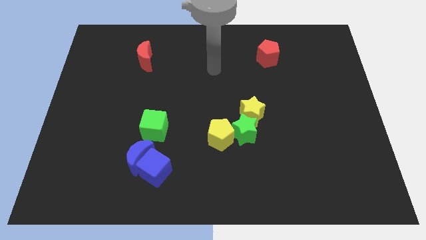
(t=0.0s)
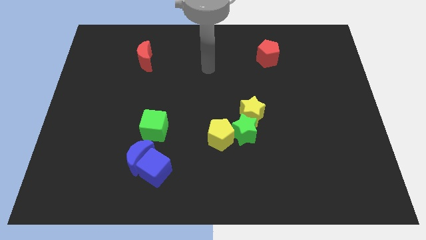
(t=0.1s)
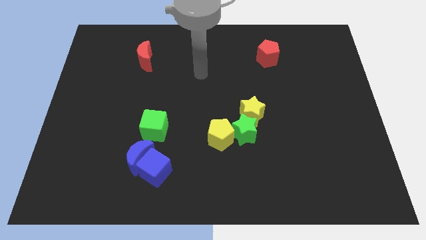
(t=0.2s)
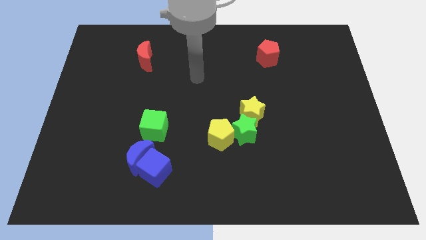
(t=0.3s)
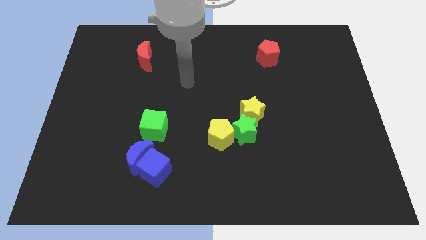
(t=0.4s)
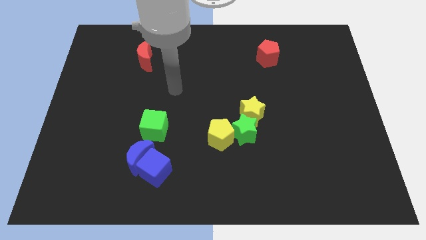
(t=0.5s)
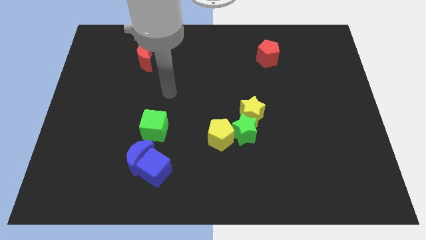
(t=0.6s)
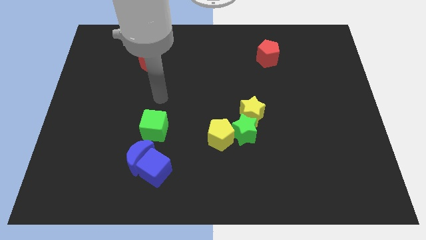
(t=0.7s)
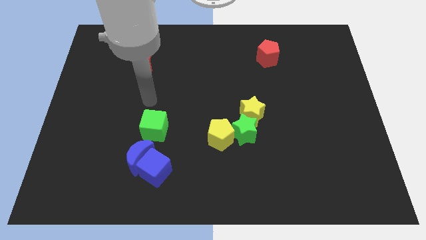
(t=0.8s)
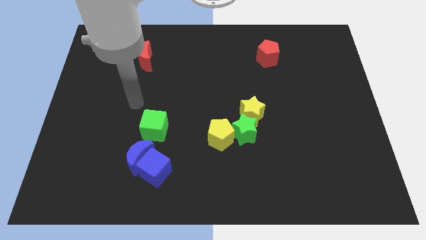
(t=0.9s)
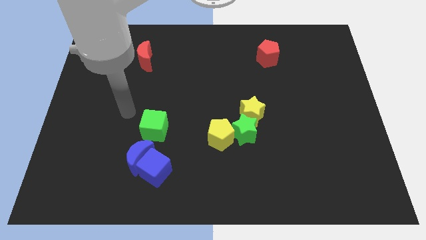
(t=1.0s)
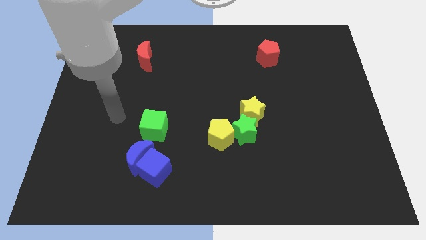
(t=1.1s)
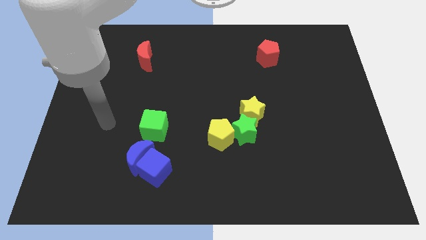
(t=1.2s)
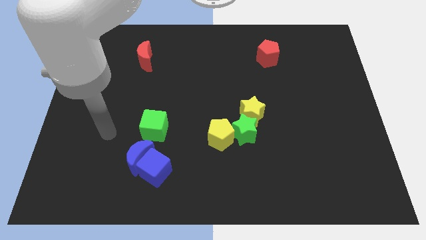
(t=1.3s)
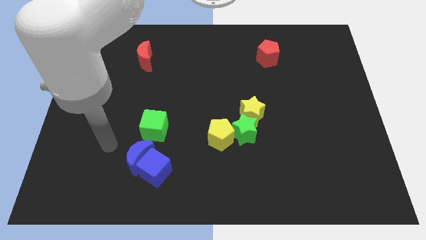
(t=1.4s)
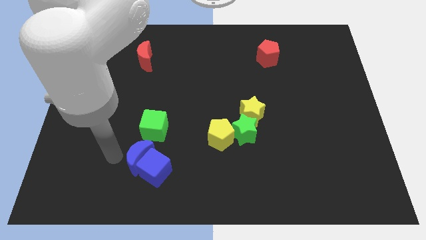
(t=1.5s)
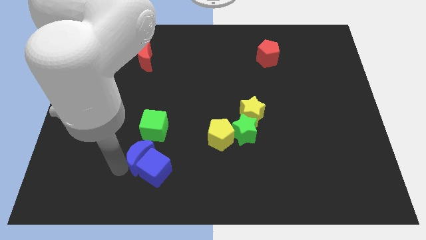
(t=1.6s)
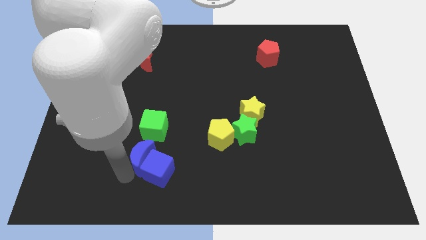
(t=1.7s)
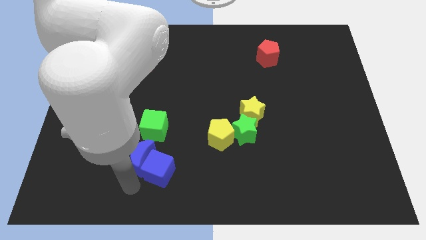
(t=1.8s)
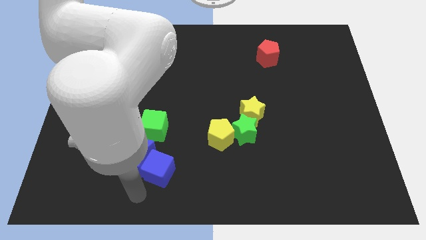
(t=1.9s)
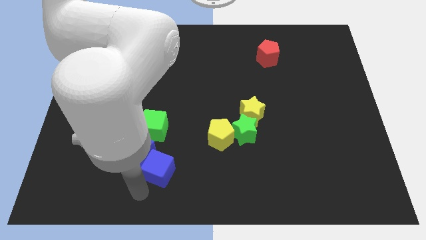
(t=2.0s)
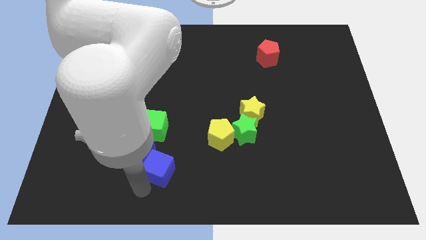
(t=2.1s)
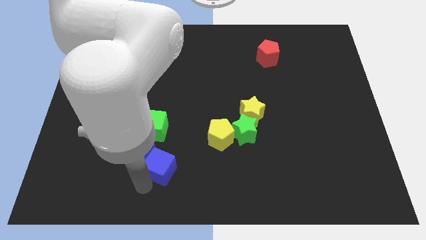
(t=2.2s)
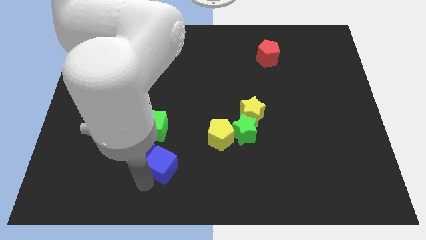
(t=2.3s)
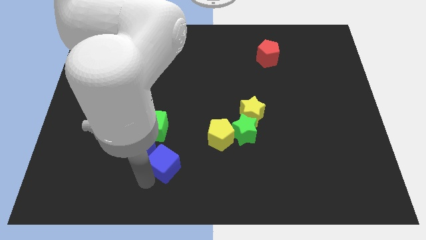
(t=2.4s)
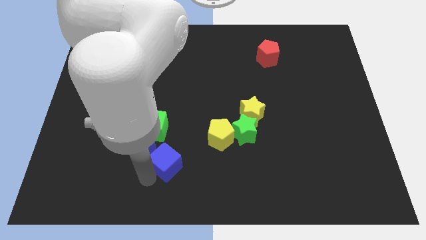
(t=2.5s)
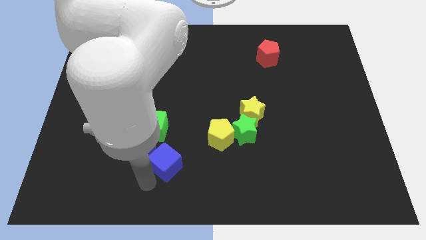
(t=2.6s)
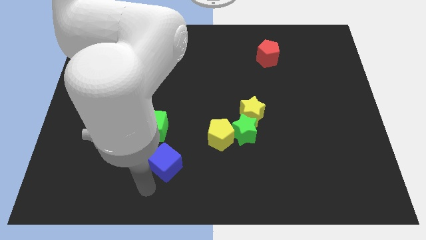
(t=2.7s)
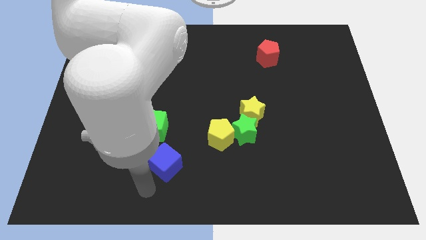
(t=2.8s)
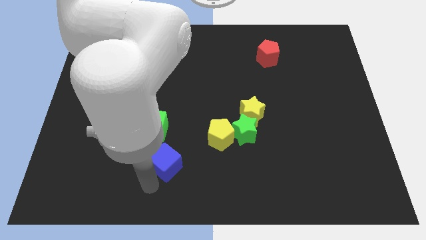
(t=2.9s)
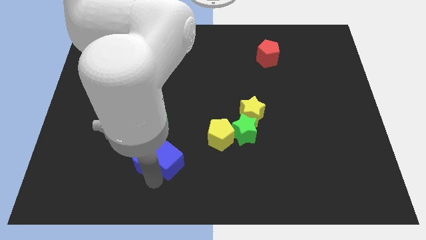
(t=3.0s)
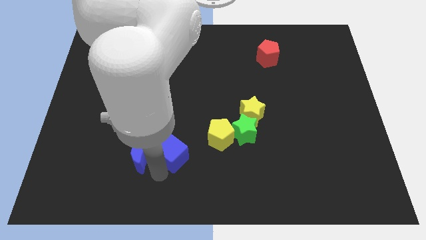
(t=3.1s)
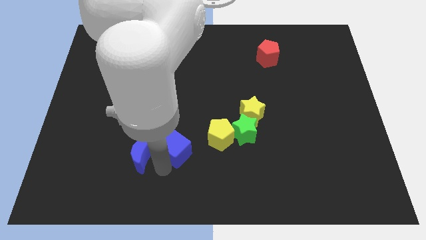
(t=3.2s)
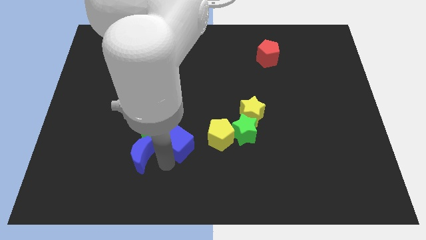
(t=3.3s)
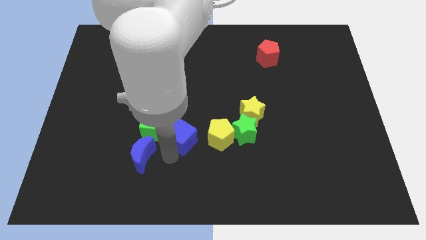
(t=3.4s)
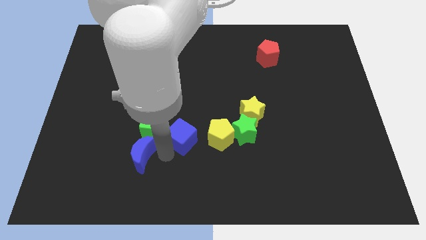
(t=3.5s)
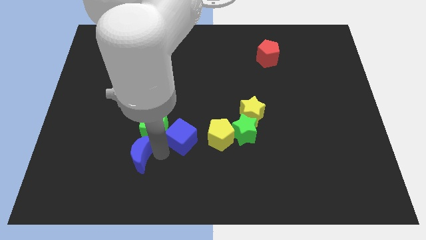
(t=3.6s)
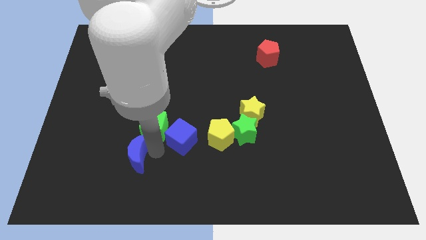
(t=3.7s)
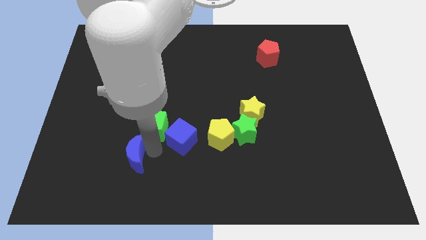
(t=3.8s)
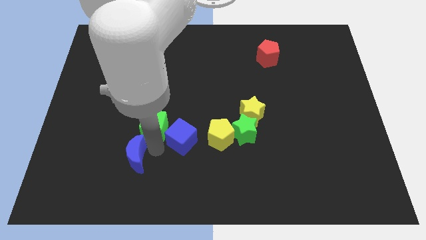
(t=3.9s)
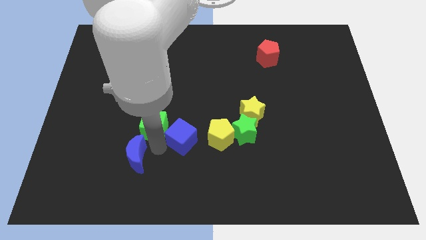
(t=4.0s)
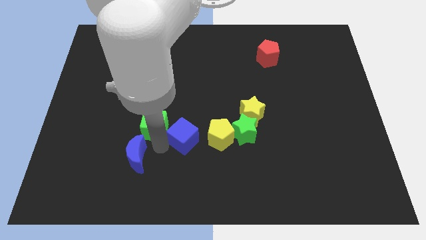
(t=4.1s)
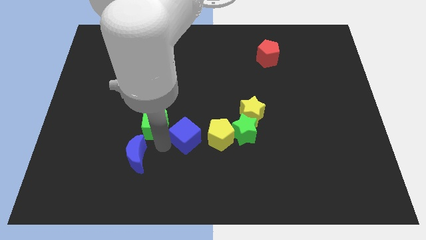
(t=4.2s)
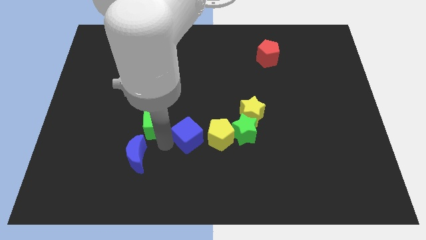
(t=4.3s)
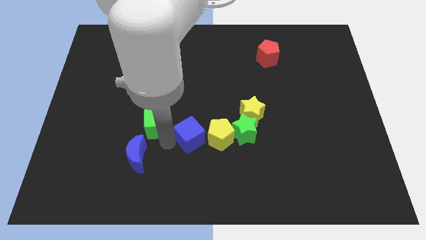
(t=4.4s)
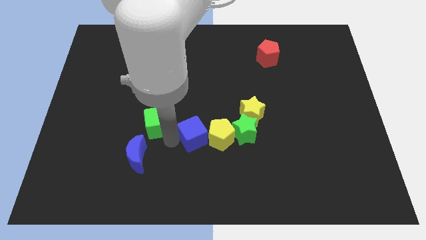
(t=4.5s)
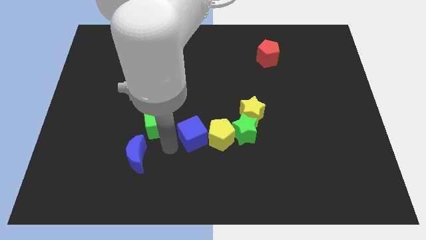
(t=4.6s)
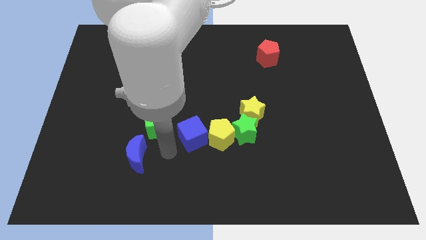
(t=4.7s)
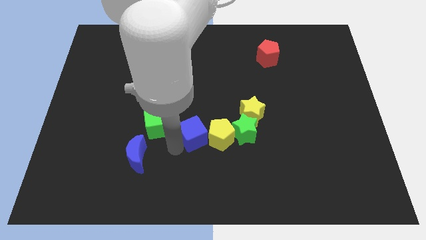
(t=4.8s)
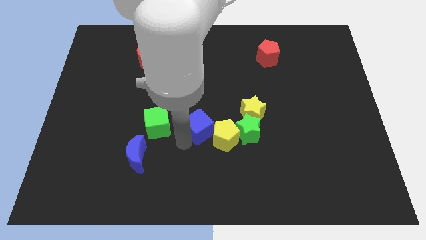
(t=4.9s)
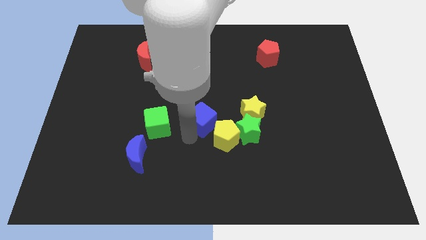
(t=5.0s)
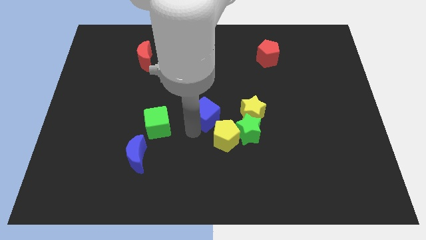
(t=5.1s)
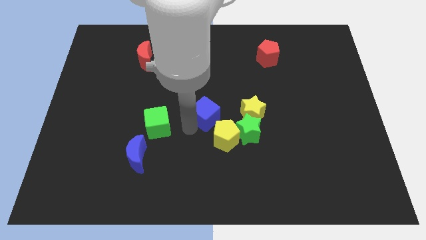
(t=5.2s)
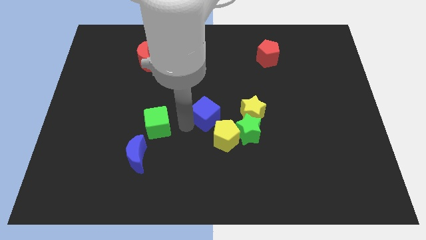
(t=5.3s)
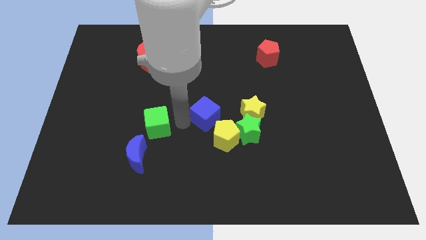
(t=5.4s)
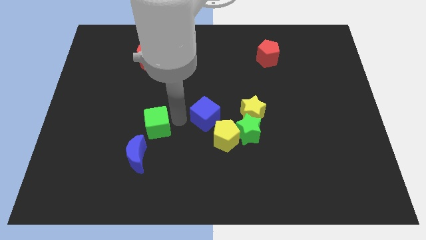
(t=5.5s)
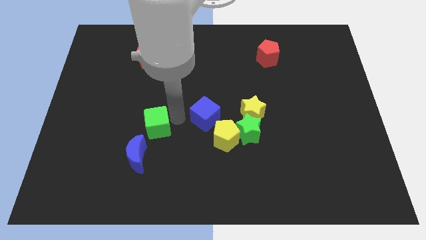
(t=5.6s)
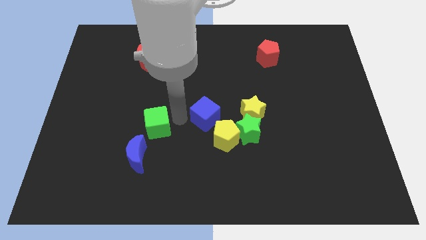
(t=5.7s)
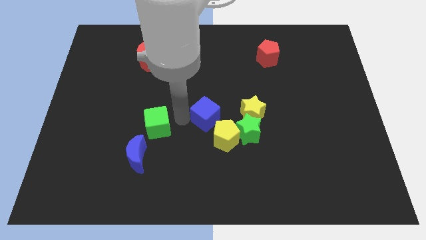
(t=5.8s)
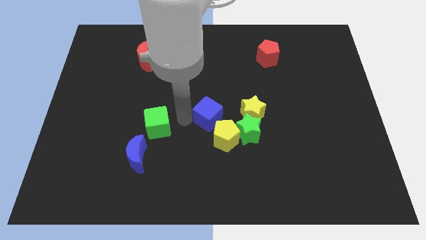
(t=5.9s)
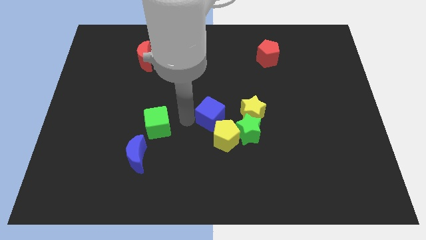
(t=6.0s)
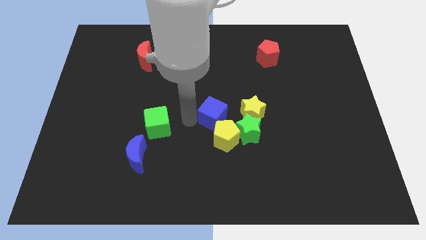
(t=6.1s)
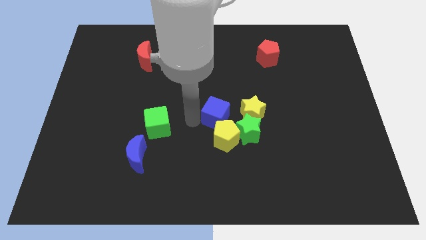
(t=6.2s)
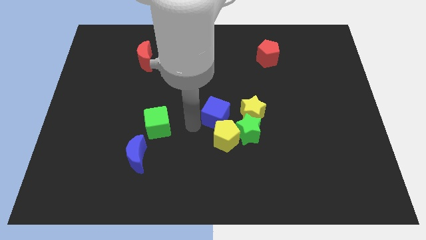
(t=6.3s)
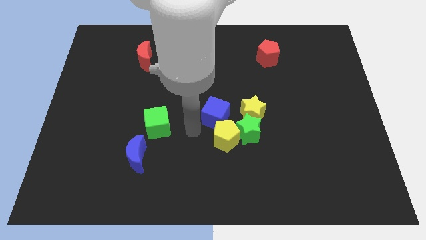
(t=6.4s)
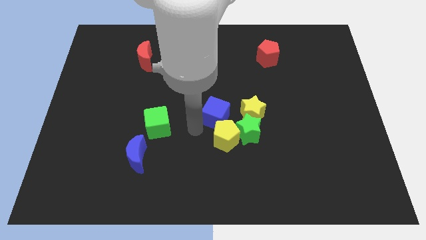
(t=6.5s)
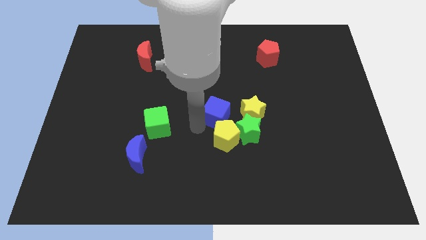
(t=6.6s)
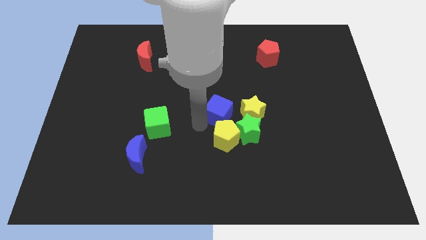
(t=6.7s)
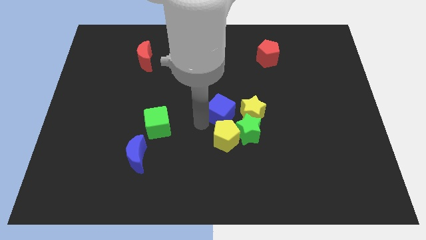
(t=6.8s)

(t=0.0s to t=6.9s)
move the blue cube up and then right

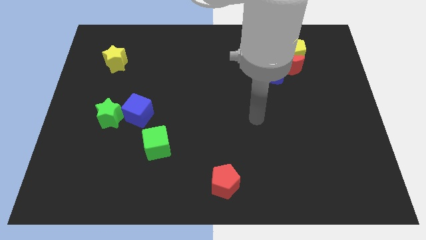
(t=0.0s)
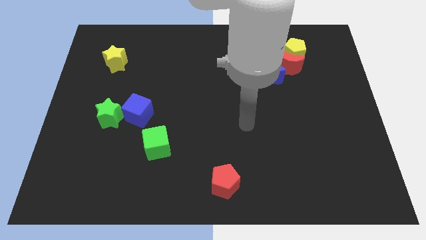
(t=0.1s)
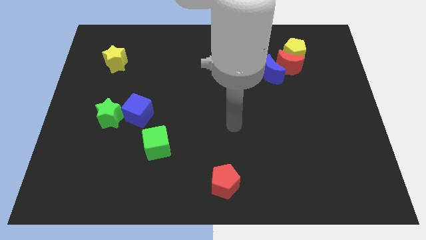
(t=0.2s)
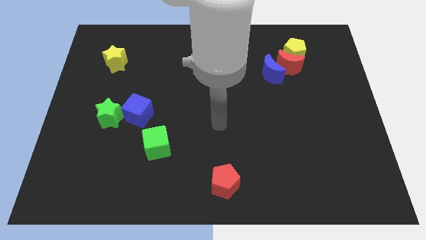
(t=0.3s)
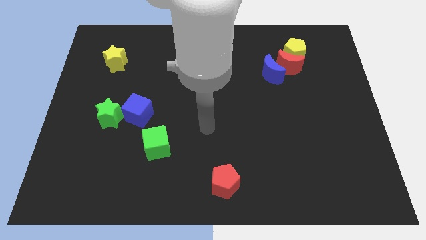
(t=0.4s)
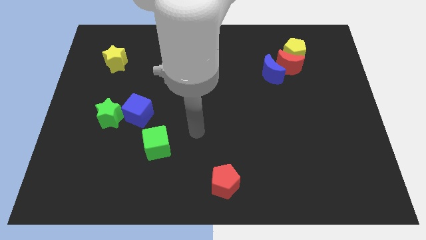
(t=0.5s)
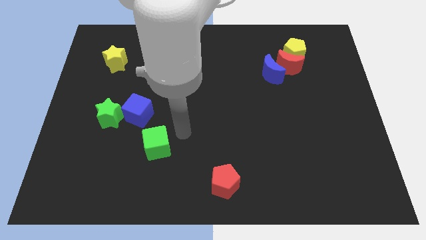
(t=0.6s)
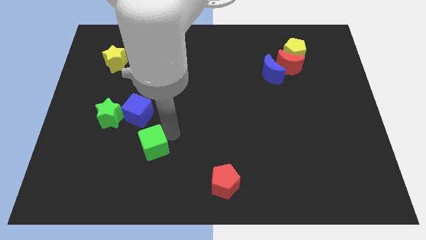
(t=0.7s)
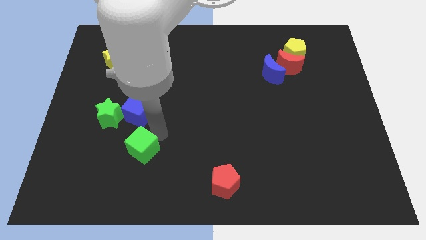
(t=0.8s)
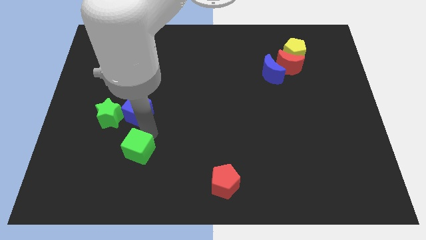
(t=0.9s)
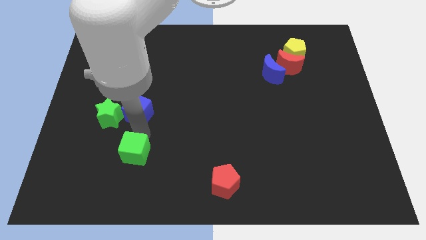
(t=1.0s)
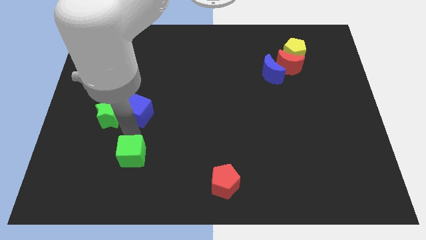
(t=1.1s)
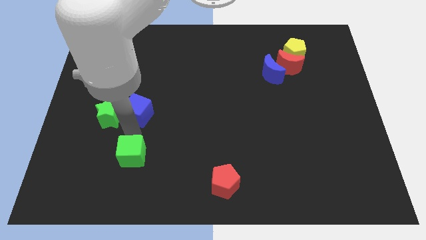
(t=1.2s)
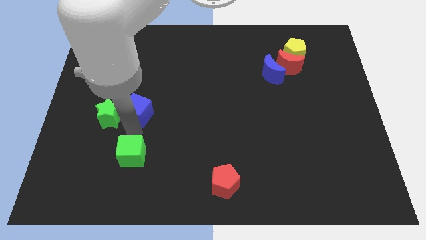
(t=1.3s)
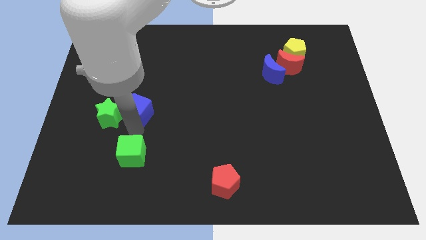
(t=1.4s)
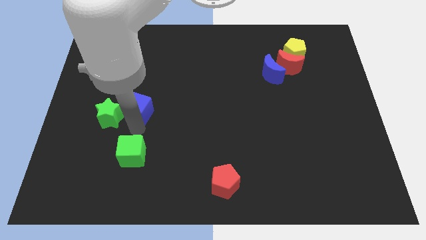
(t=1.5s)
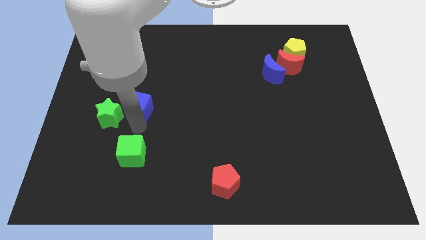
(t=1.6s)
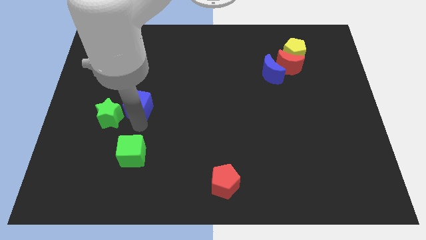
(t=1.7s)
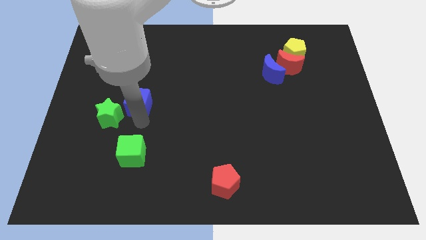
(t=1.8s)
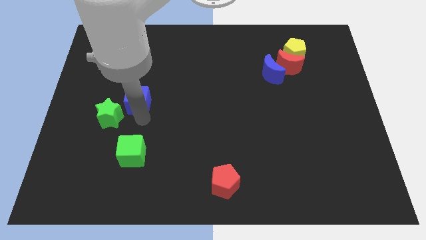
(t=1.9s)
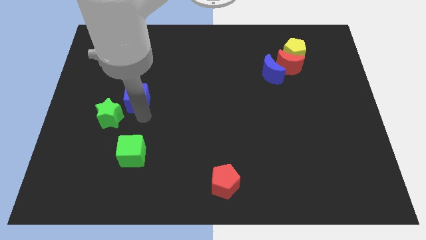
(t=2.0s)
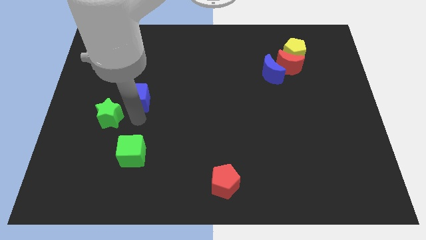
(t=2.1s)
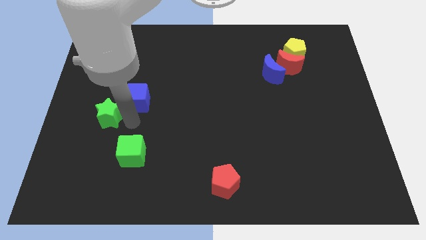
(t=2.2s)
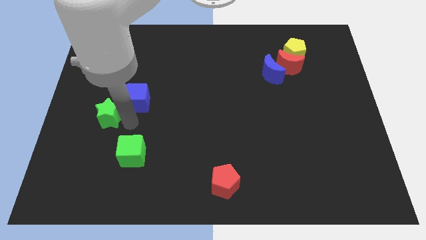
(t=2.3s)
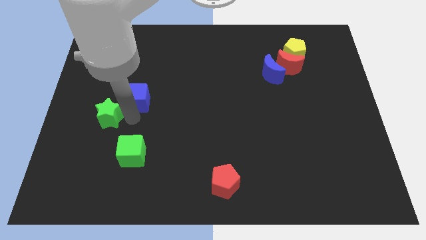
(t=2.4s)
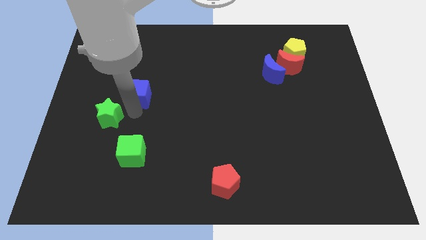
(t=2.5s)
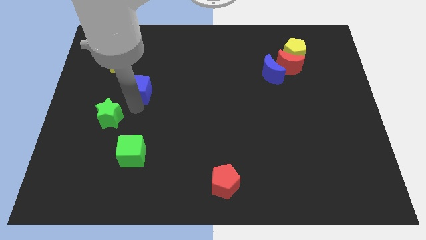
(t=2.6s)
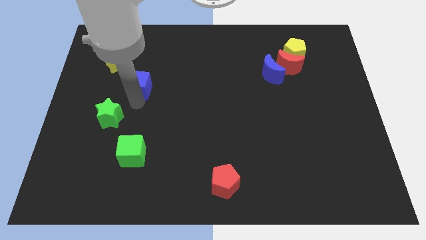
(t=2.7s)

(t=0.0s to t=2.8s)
move the blue cube a little bit upwards
